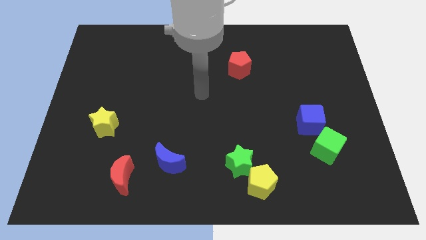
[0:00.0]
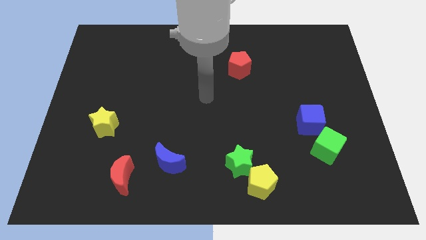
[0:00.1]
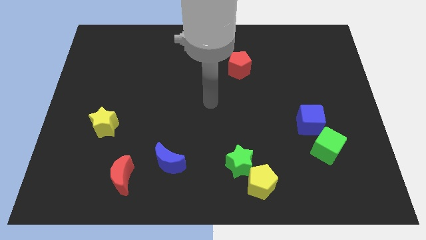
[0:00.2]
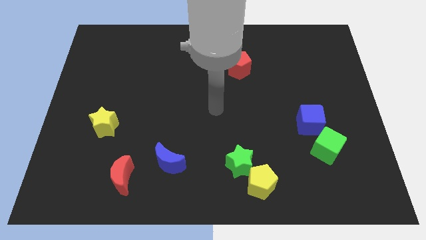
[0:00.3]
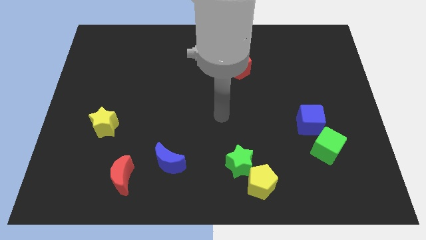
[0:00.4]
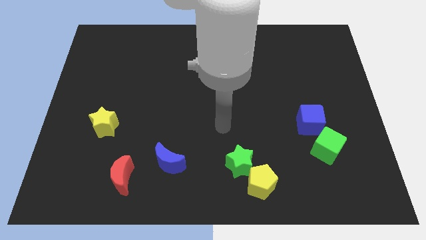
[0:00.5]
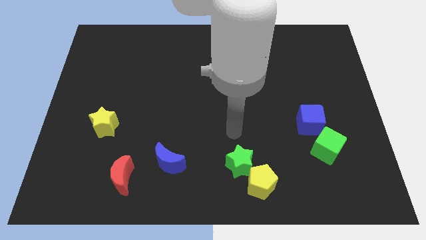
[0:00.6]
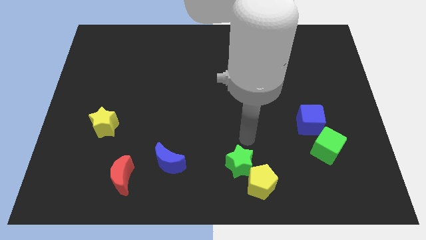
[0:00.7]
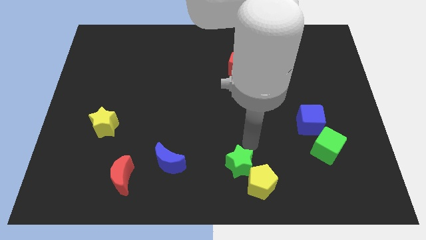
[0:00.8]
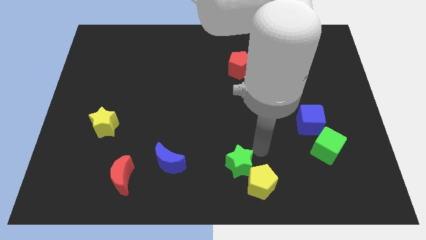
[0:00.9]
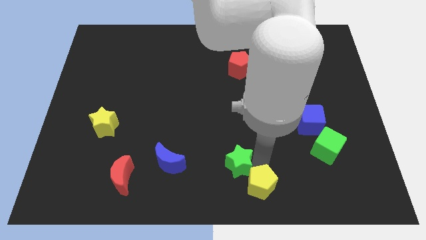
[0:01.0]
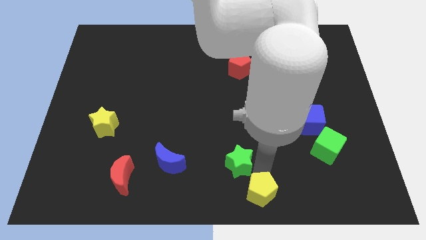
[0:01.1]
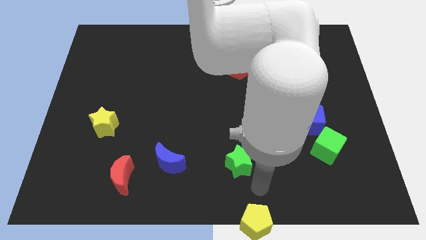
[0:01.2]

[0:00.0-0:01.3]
move the green star away from the yellow pentagon

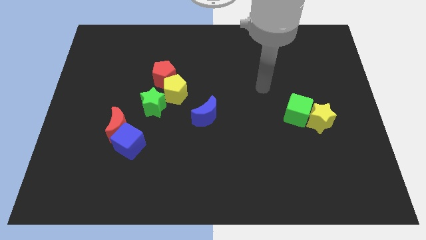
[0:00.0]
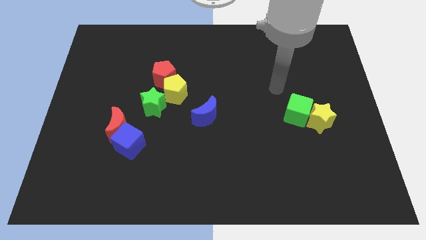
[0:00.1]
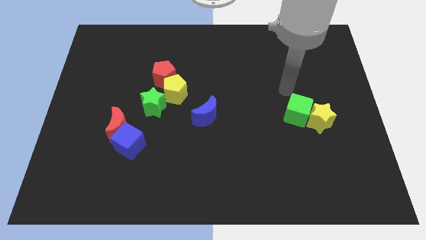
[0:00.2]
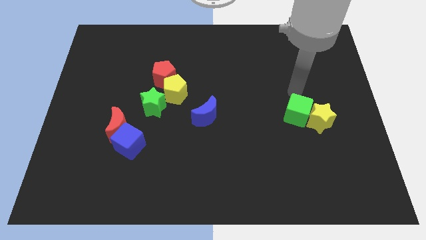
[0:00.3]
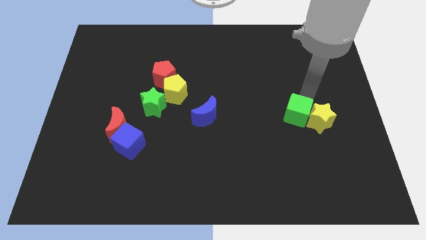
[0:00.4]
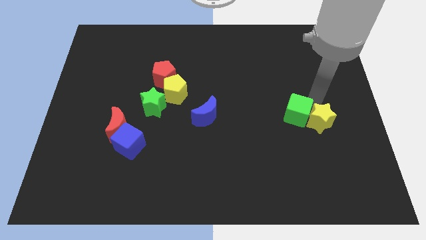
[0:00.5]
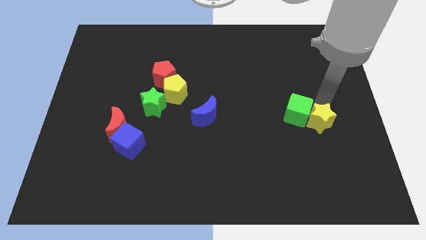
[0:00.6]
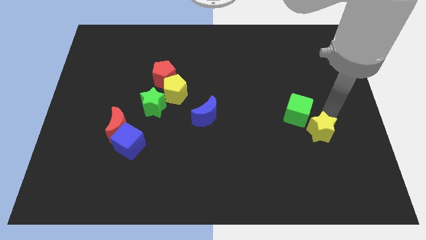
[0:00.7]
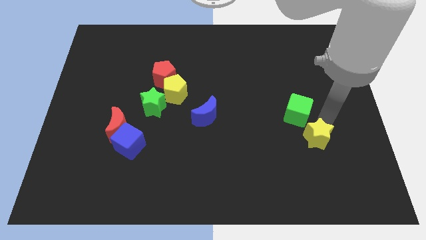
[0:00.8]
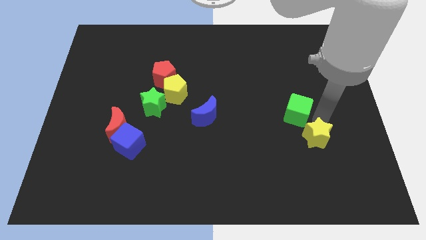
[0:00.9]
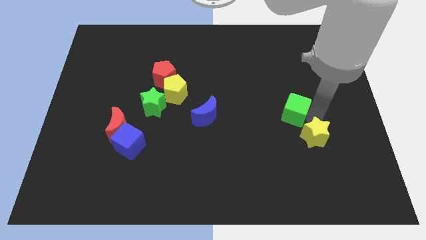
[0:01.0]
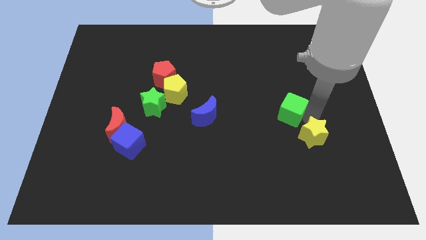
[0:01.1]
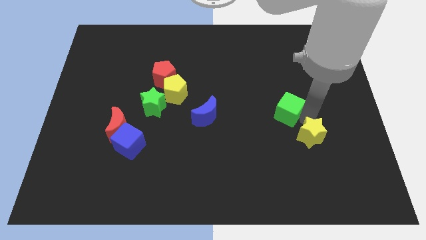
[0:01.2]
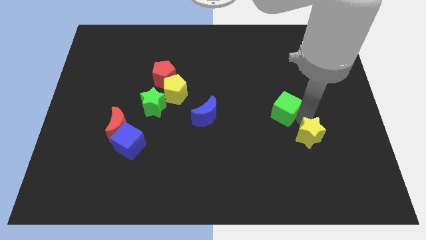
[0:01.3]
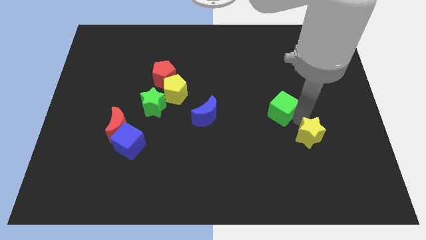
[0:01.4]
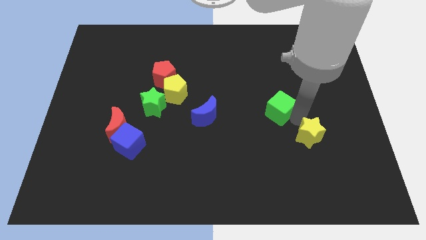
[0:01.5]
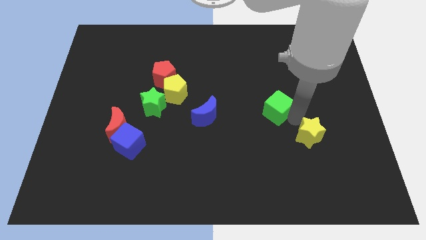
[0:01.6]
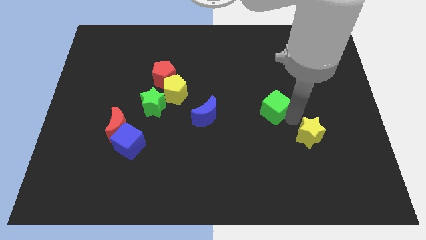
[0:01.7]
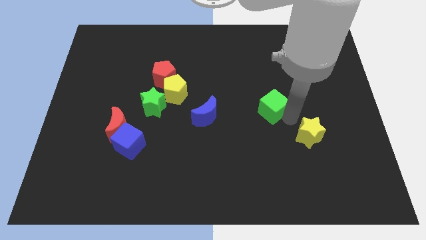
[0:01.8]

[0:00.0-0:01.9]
pull the green cube apart from the yellow star

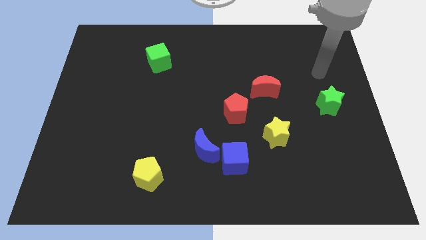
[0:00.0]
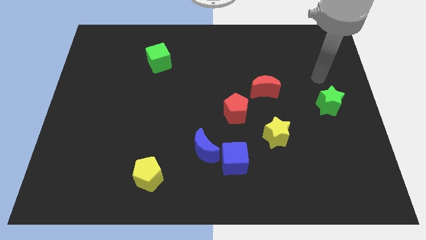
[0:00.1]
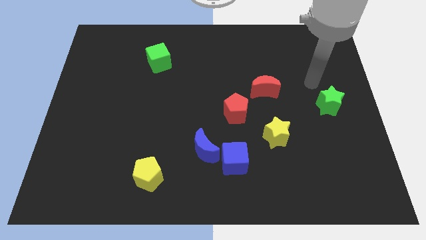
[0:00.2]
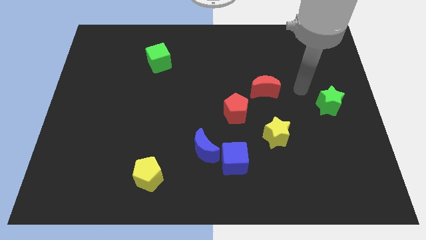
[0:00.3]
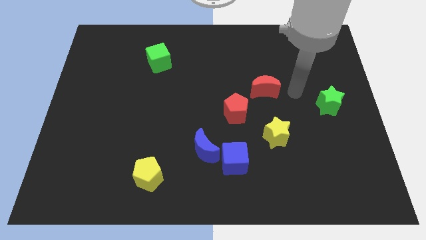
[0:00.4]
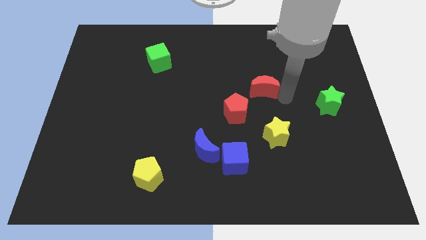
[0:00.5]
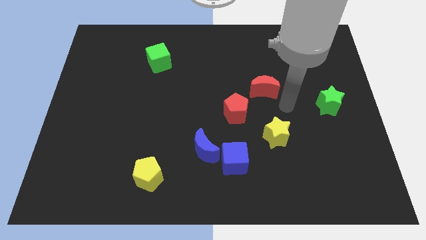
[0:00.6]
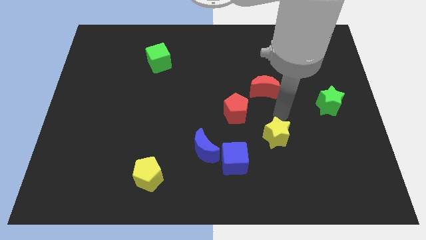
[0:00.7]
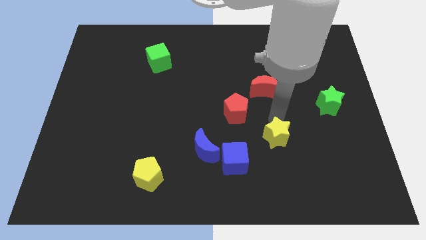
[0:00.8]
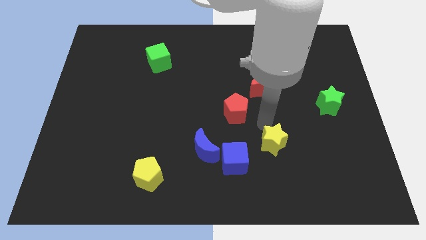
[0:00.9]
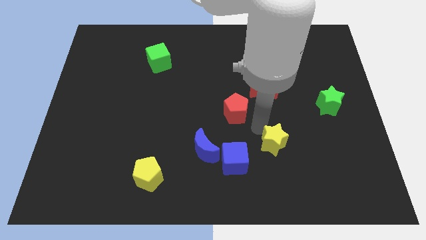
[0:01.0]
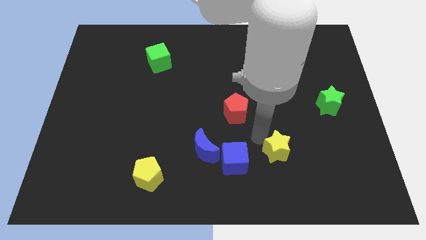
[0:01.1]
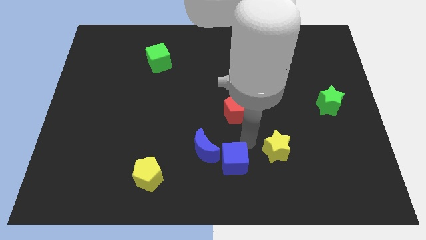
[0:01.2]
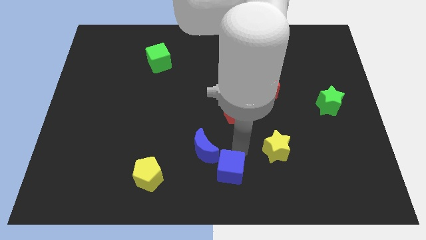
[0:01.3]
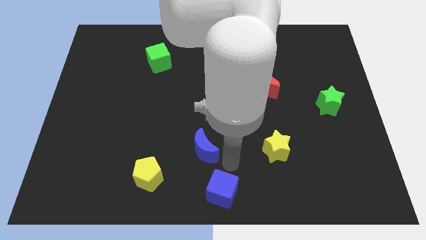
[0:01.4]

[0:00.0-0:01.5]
separate the blue moon from the blue cube

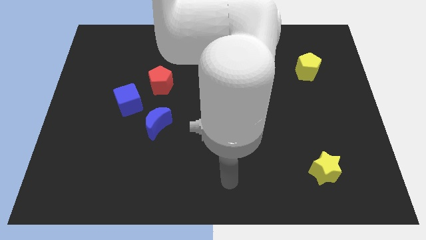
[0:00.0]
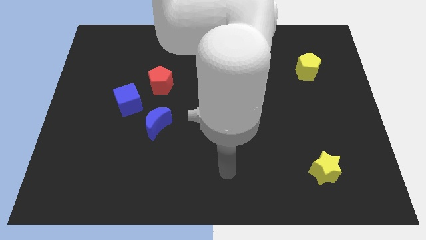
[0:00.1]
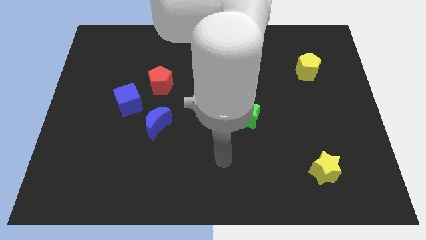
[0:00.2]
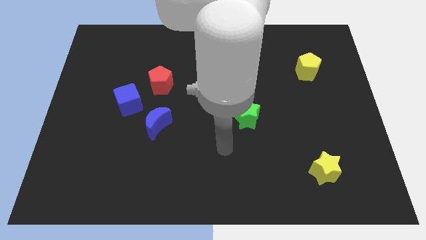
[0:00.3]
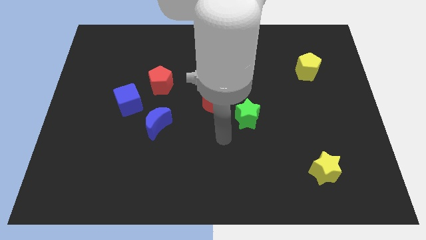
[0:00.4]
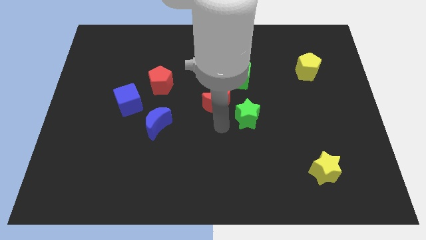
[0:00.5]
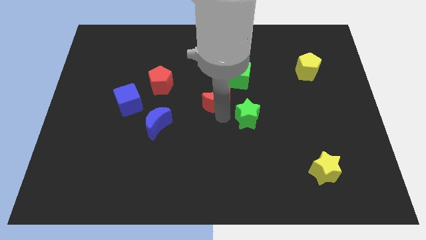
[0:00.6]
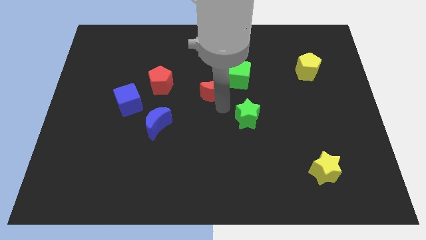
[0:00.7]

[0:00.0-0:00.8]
separate the green star from the red moon

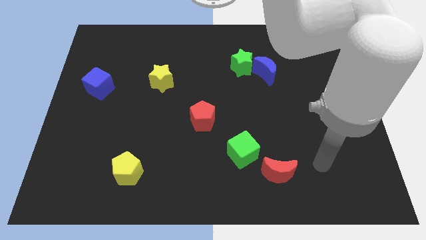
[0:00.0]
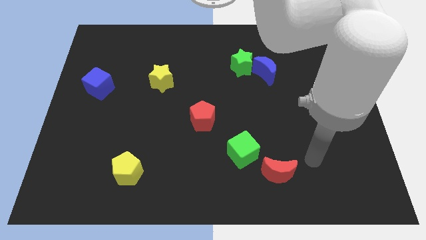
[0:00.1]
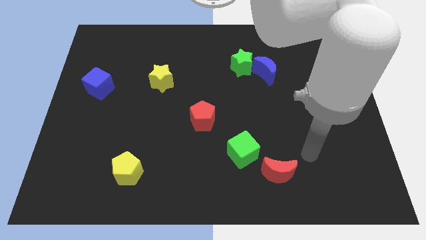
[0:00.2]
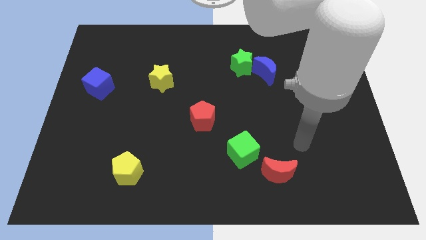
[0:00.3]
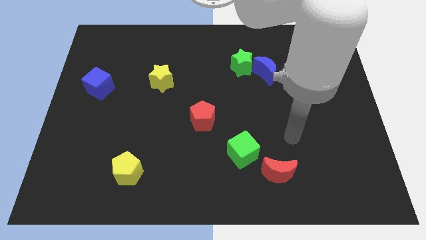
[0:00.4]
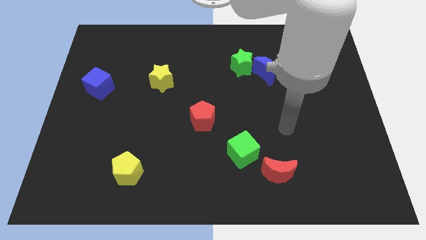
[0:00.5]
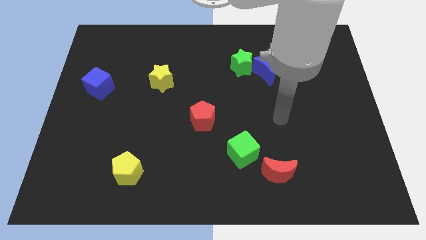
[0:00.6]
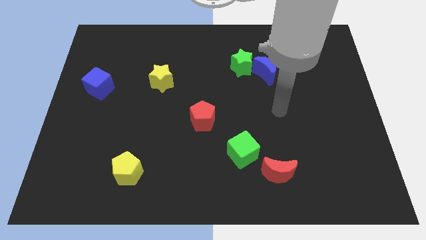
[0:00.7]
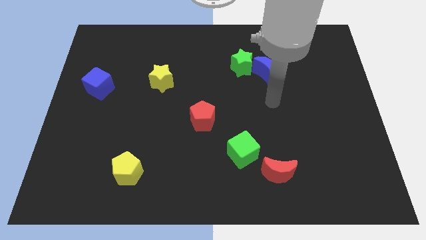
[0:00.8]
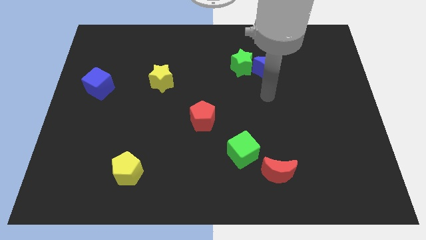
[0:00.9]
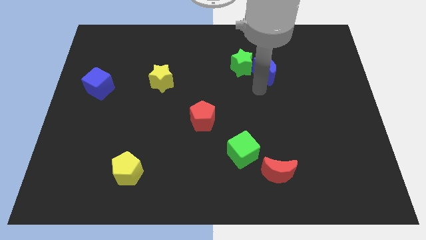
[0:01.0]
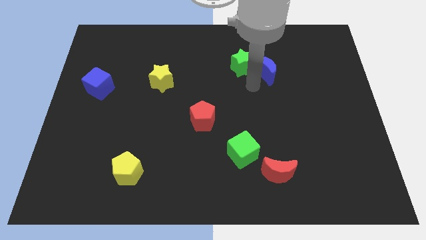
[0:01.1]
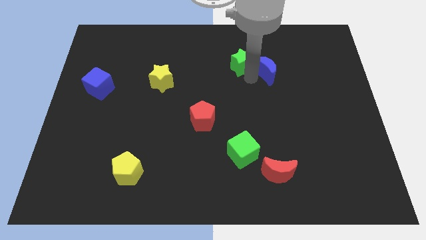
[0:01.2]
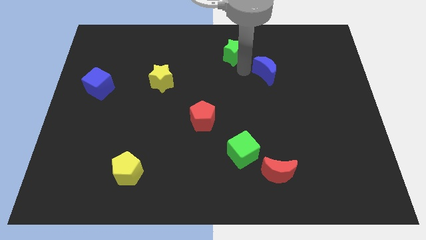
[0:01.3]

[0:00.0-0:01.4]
pull the blue moon apart from the green star

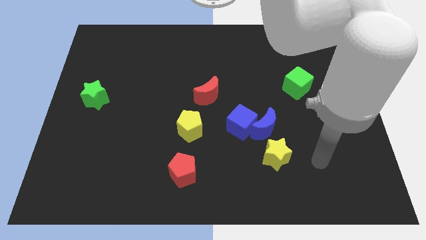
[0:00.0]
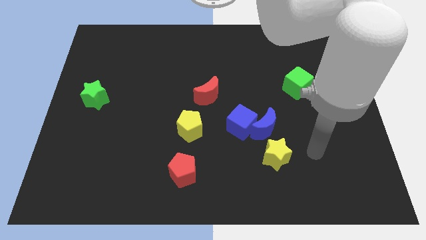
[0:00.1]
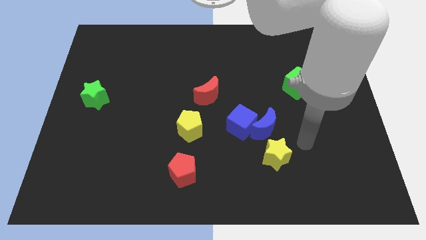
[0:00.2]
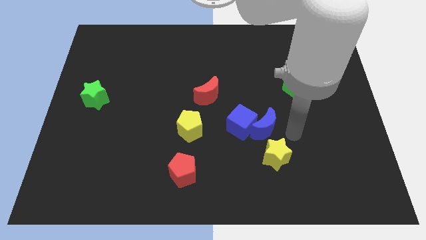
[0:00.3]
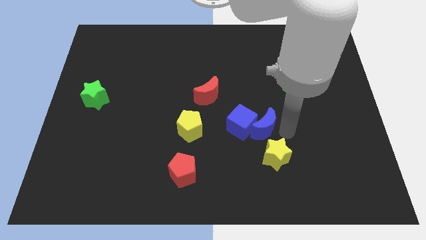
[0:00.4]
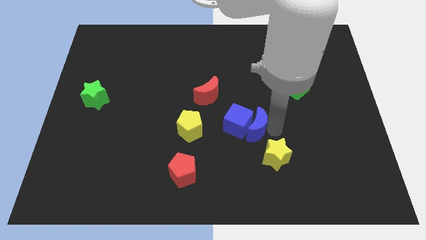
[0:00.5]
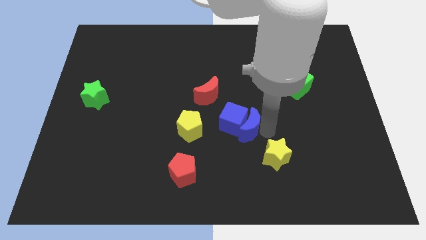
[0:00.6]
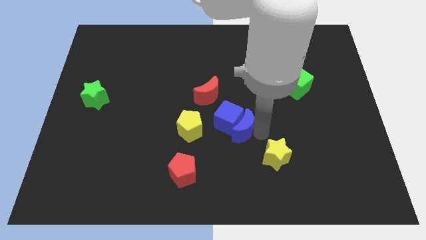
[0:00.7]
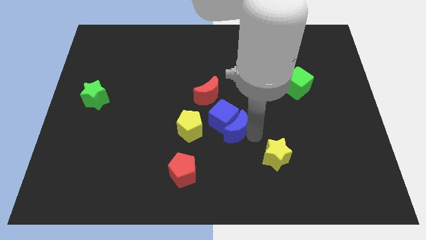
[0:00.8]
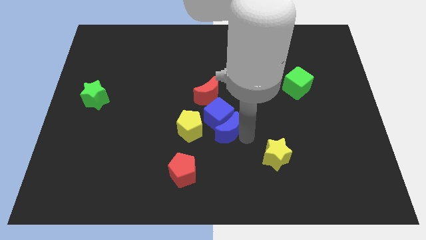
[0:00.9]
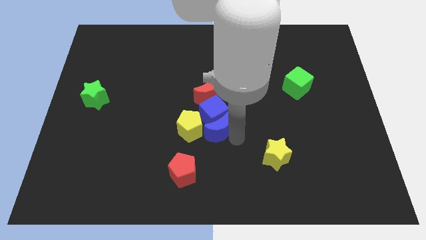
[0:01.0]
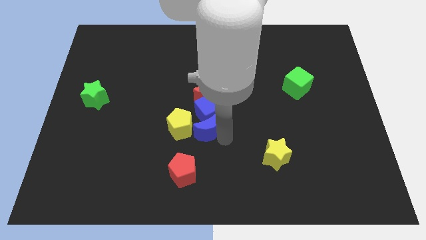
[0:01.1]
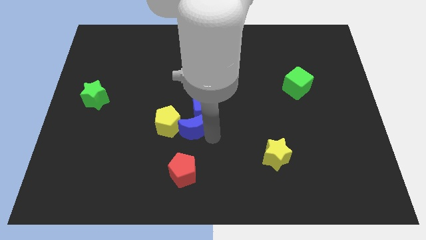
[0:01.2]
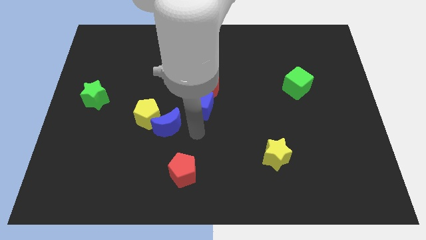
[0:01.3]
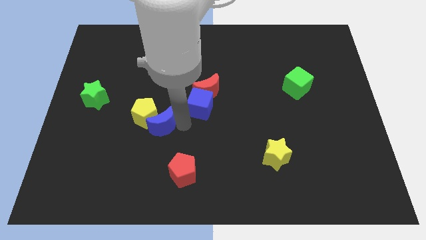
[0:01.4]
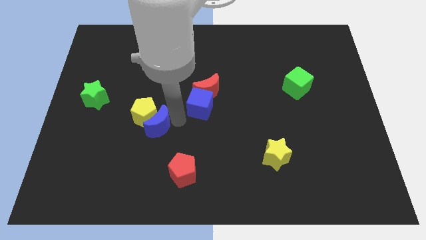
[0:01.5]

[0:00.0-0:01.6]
pull the blue cube apart from the blue moon

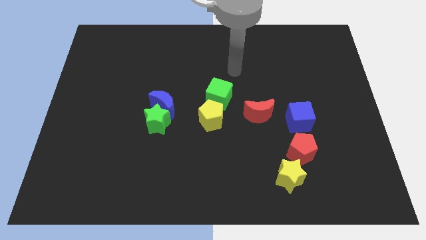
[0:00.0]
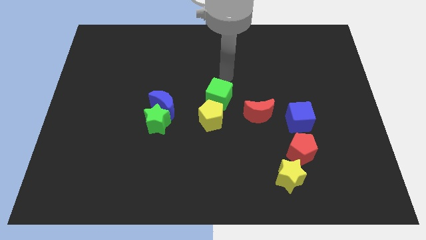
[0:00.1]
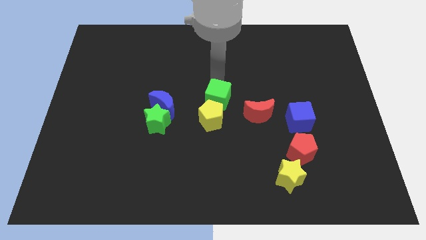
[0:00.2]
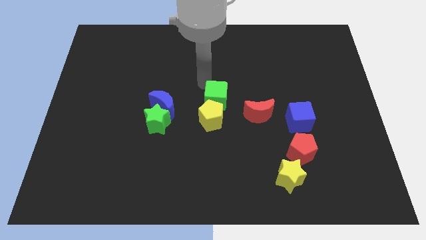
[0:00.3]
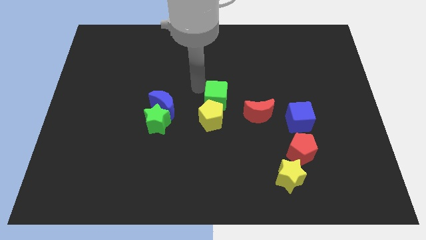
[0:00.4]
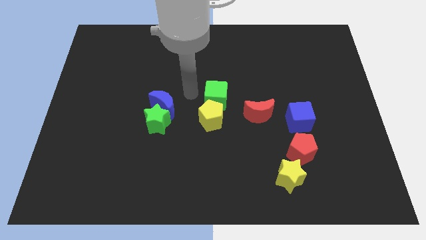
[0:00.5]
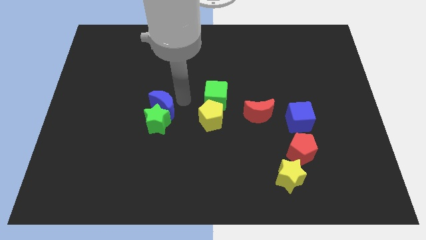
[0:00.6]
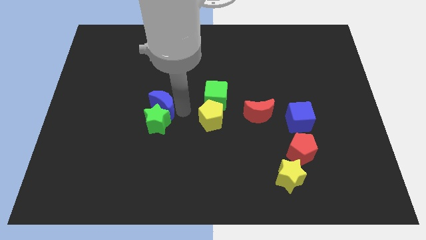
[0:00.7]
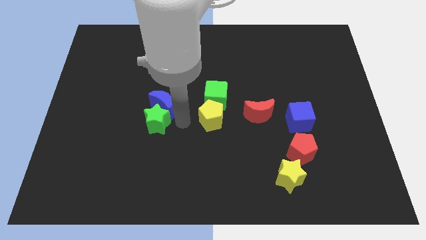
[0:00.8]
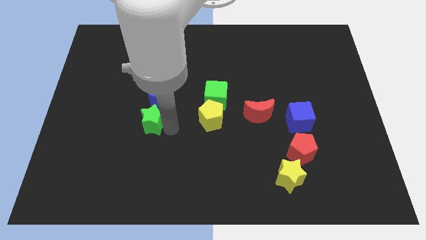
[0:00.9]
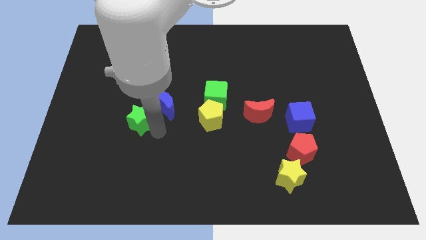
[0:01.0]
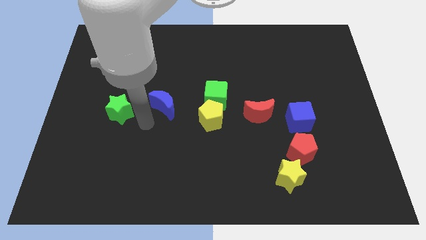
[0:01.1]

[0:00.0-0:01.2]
separate the blue moon from the green star
